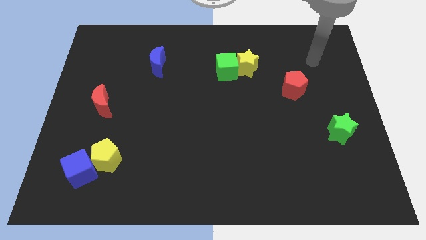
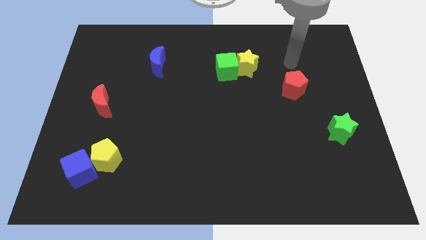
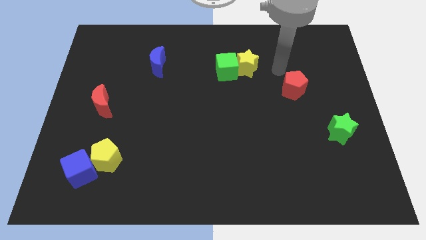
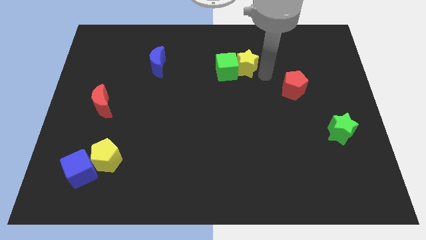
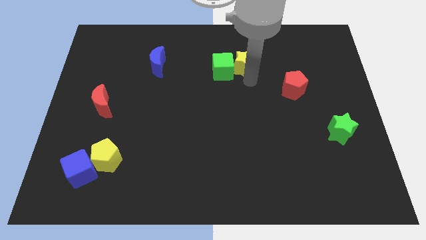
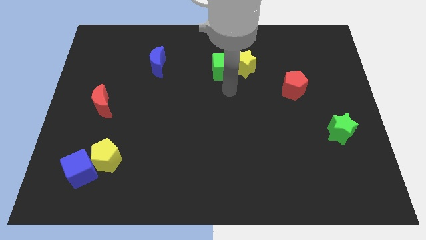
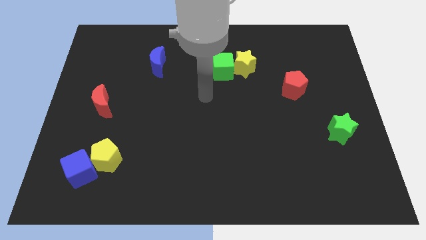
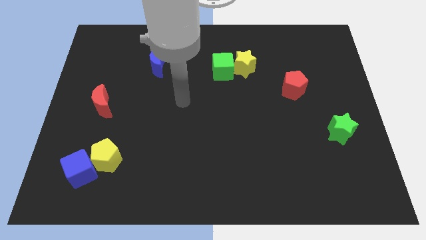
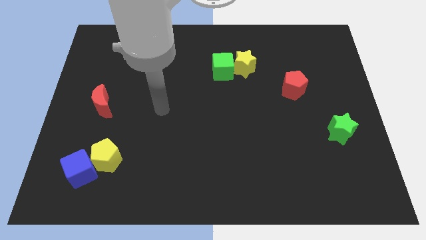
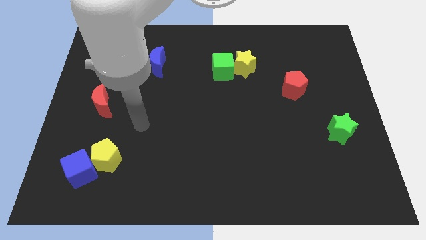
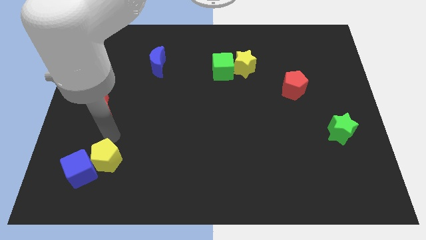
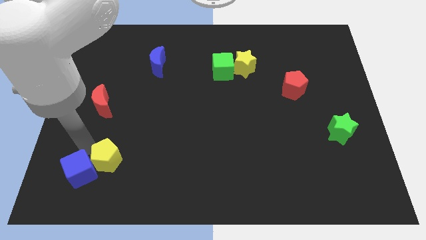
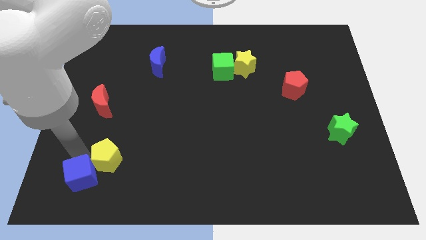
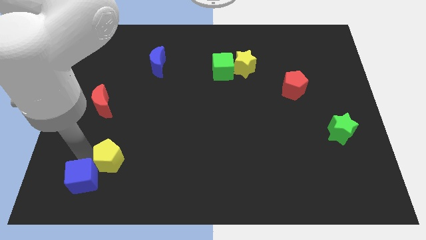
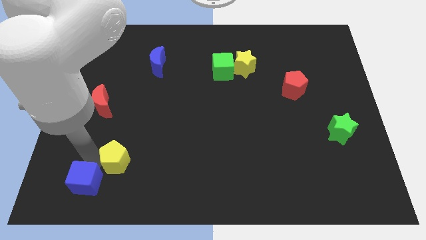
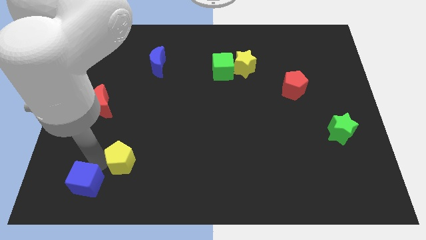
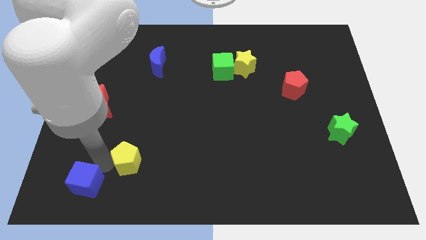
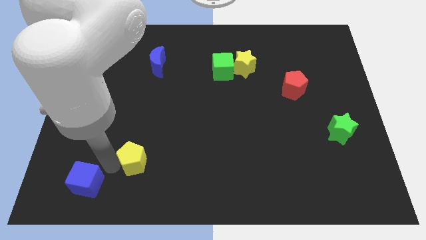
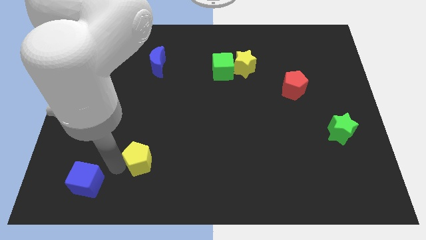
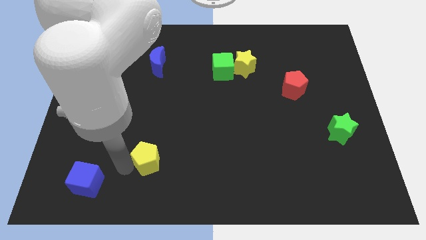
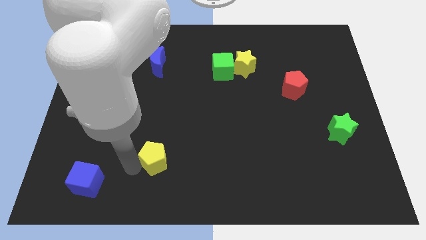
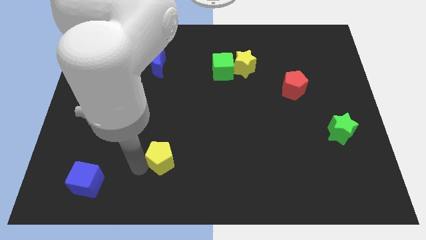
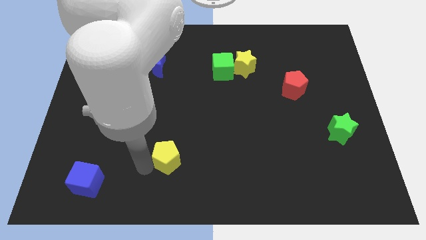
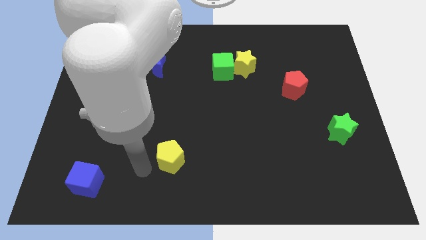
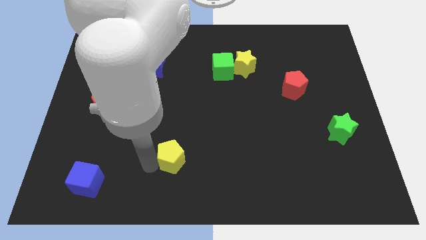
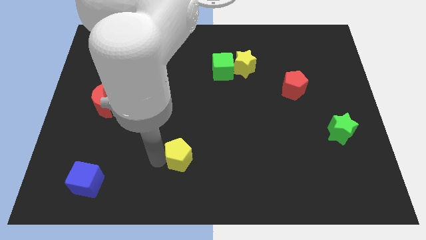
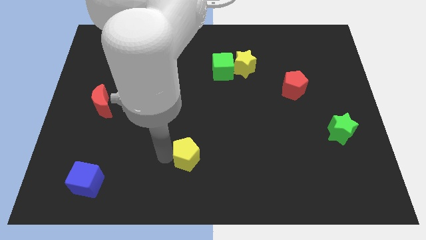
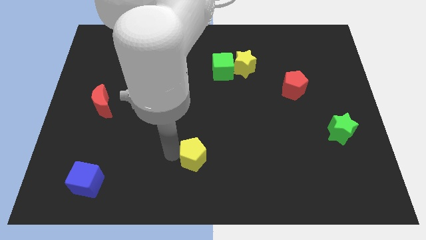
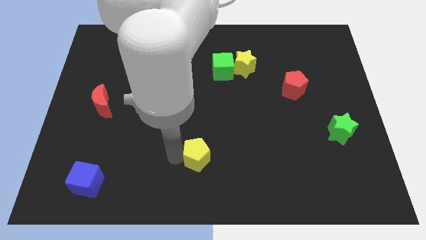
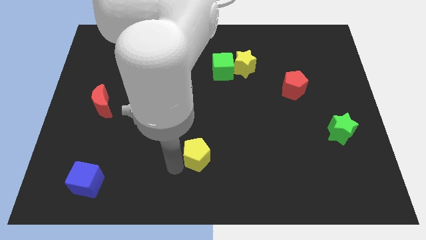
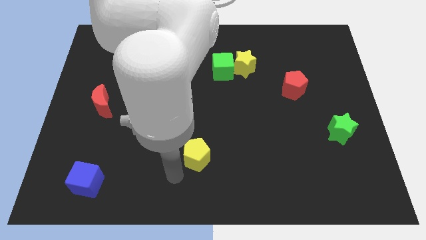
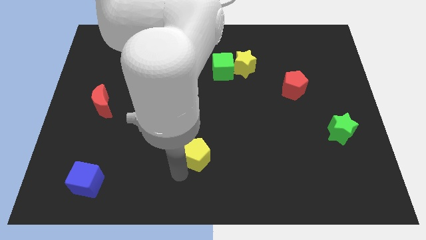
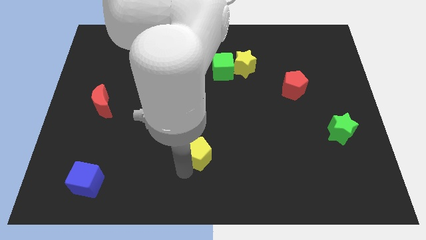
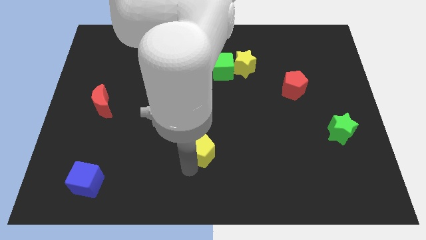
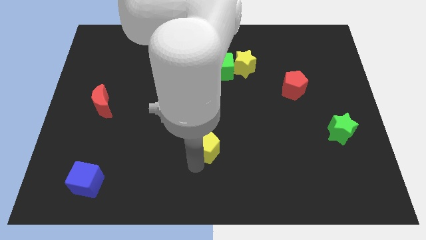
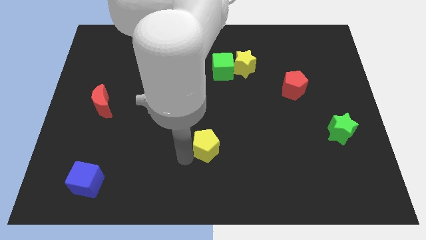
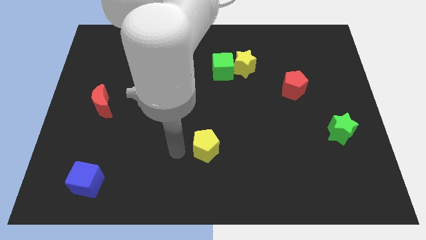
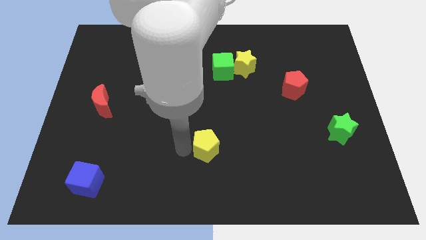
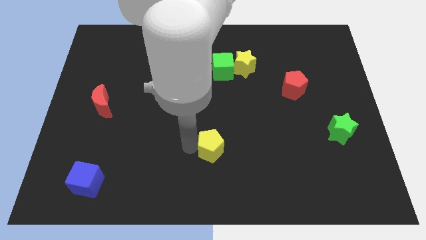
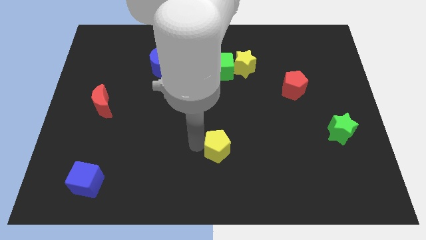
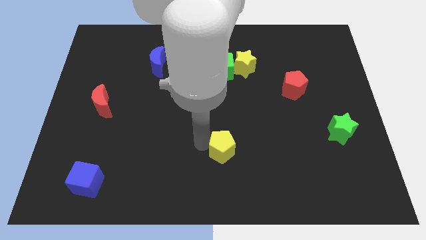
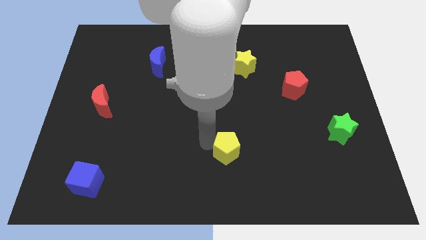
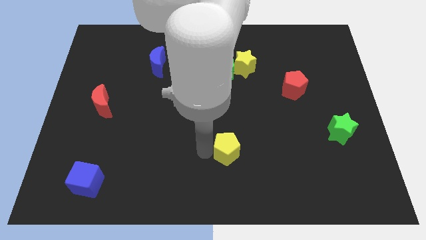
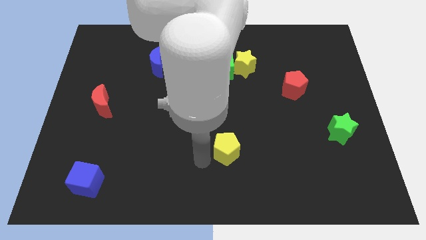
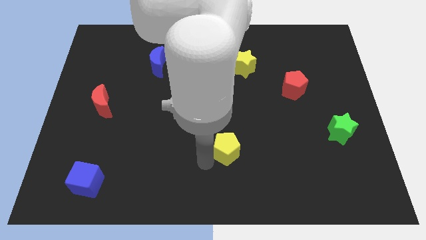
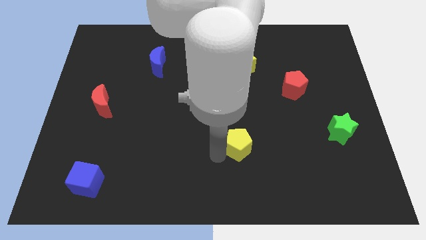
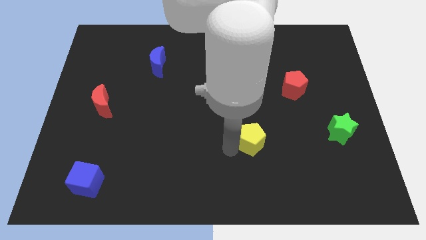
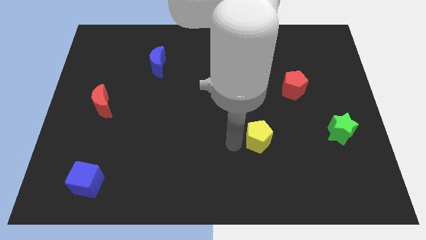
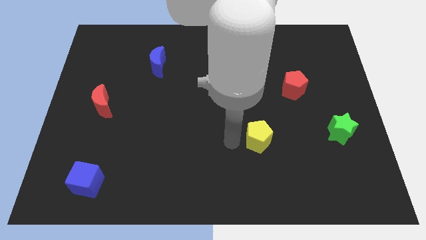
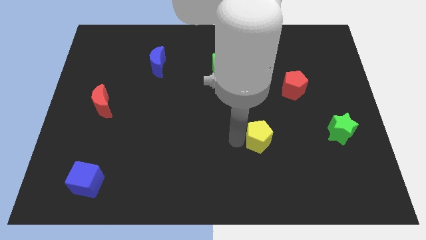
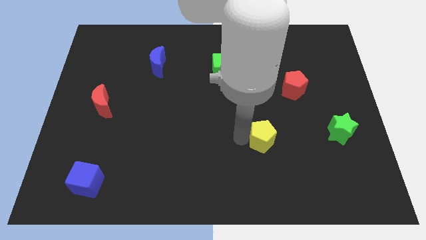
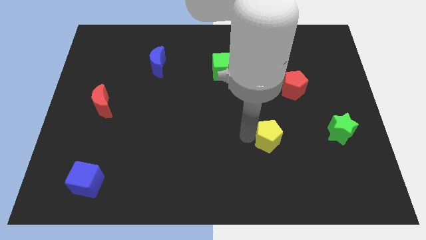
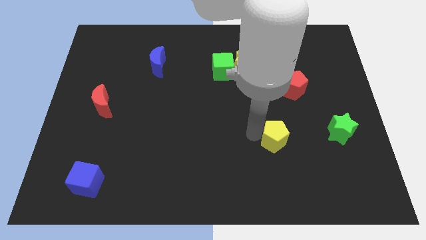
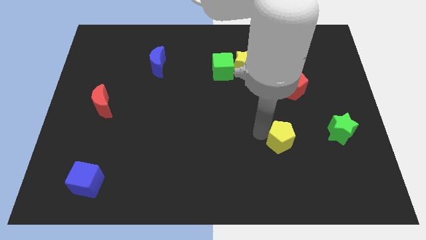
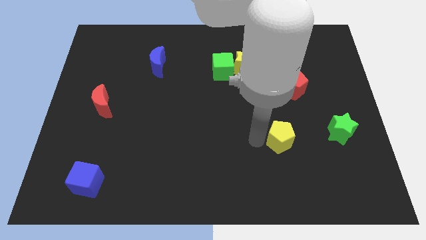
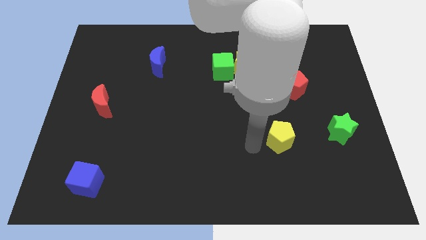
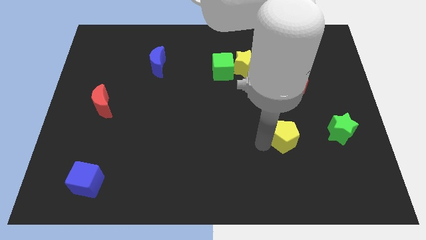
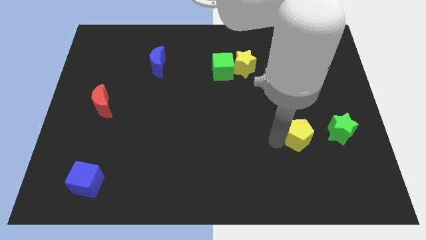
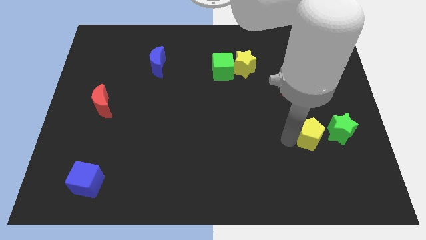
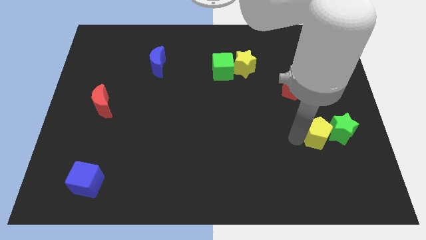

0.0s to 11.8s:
slide the yellow pentagon towards the green star

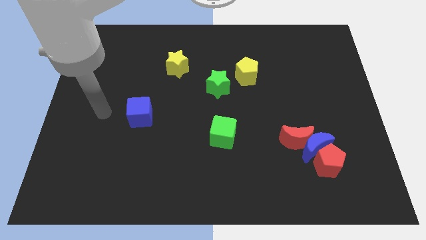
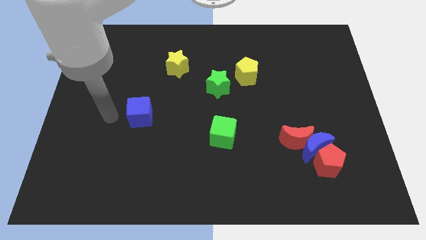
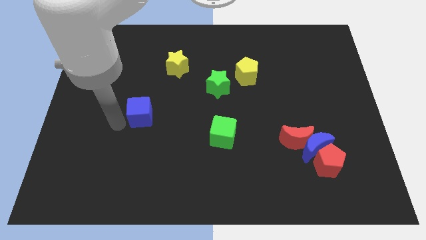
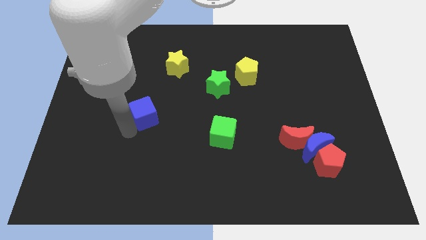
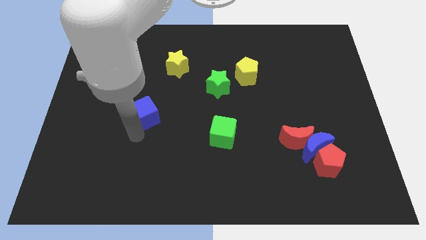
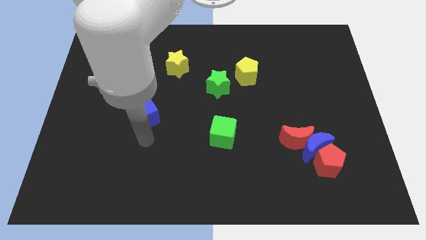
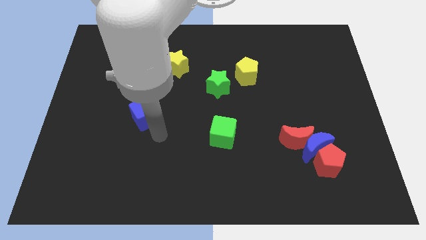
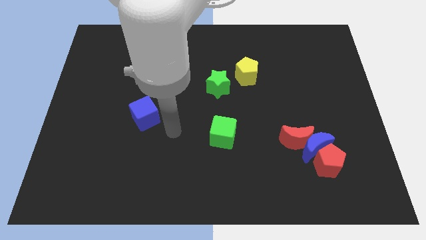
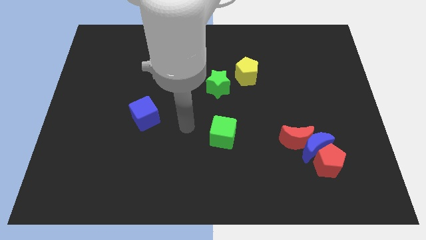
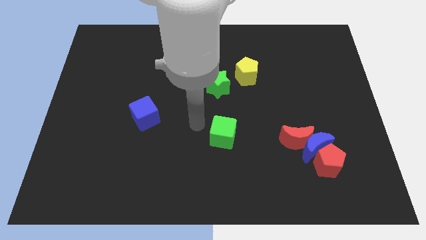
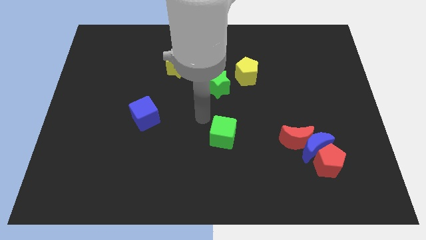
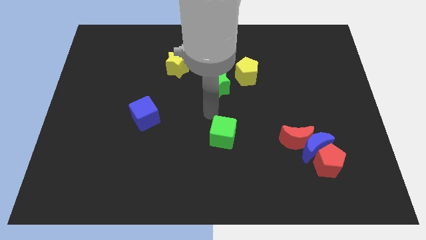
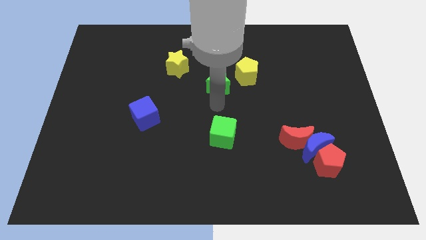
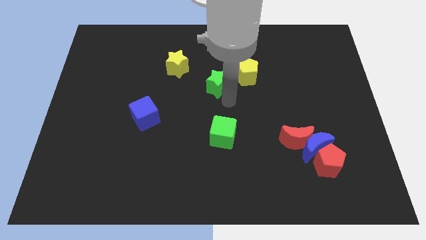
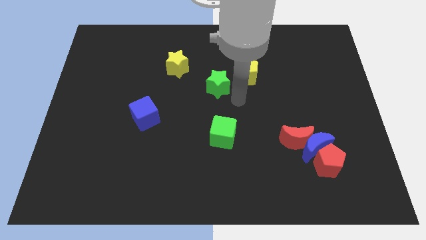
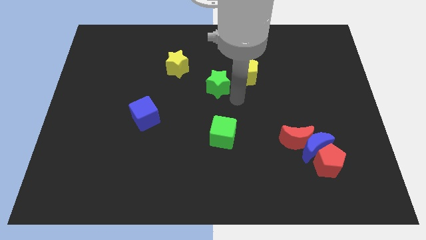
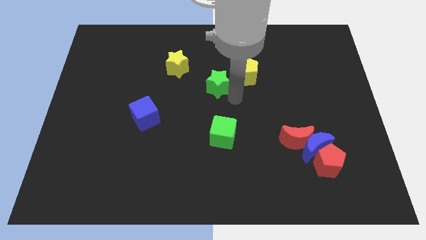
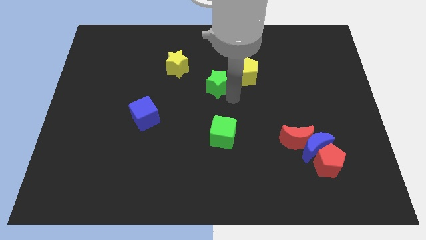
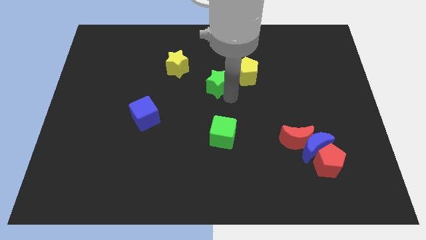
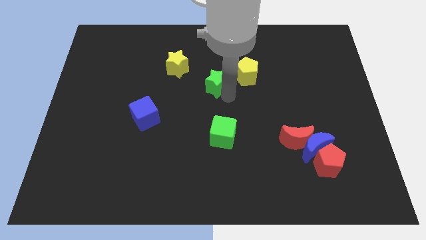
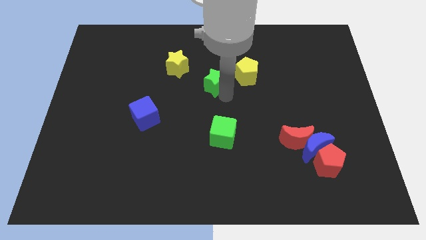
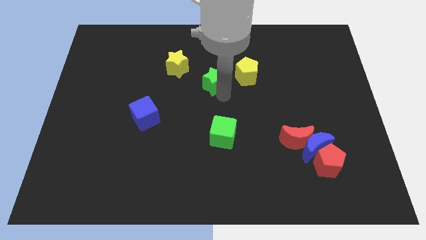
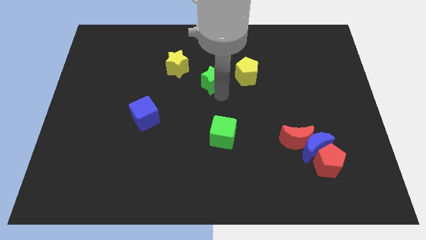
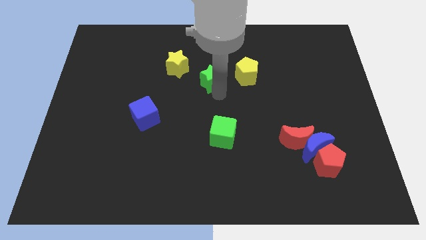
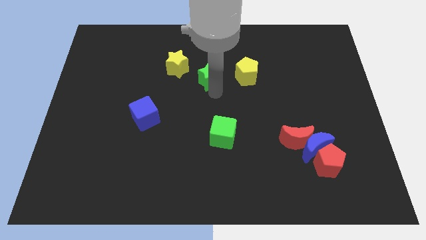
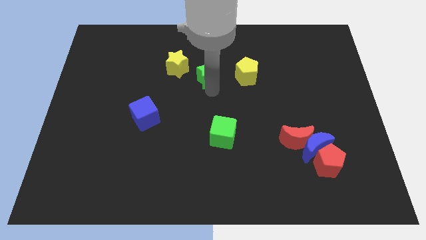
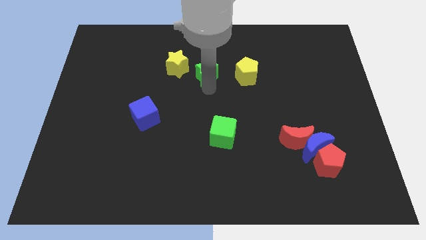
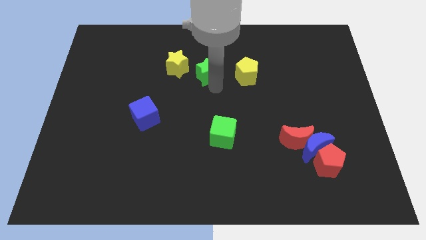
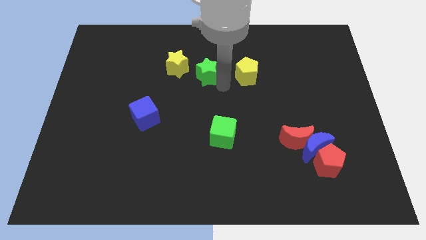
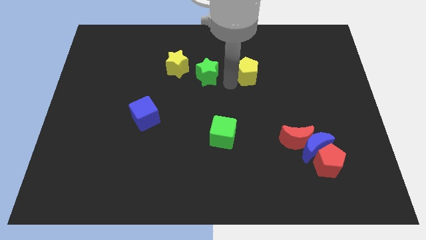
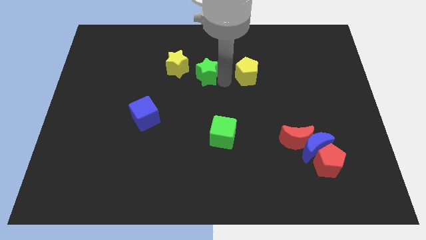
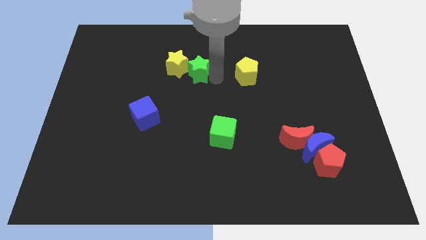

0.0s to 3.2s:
put the green star next to the yellow star
